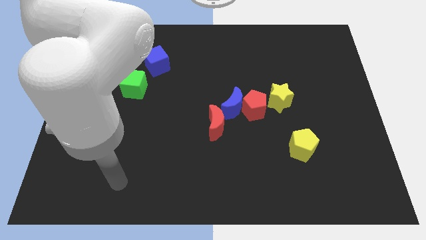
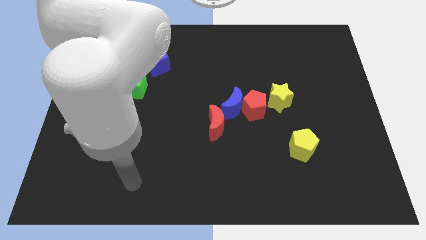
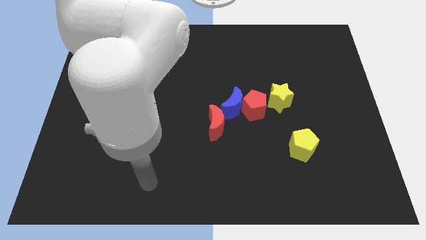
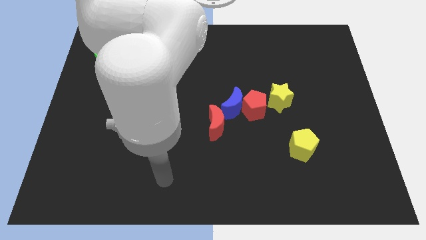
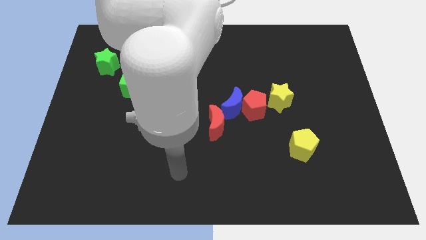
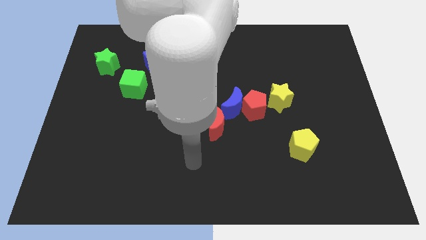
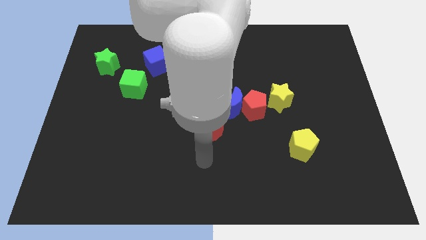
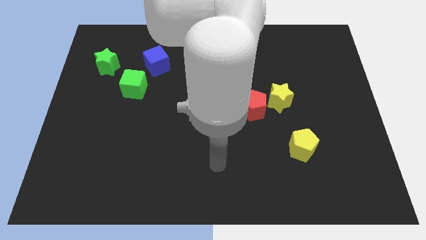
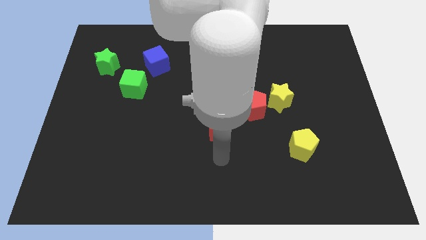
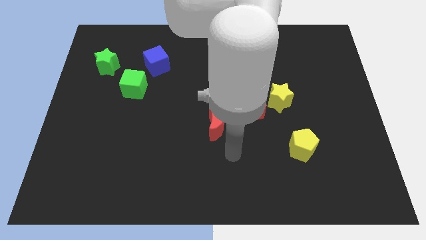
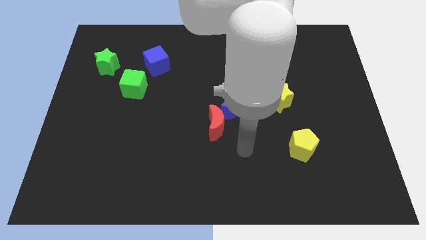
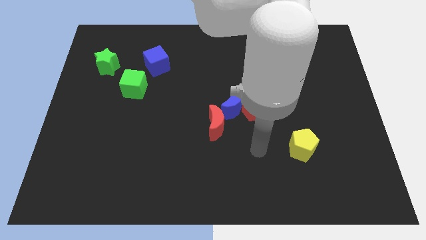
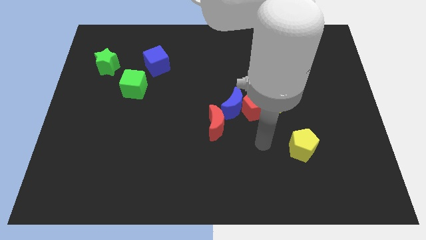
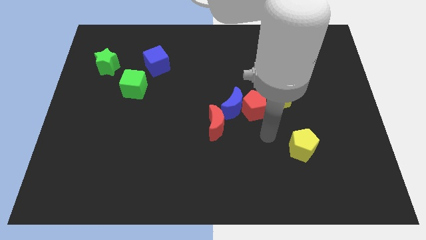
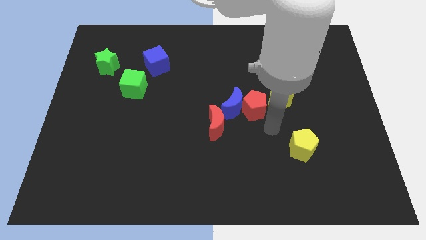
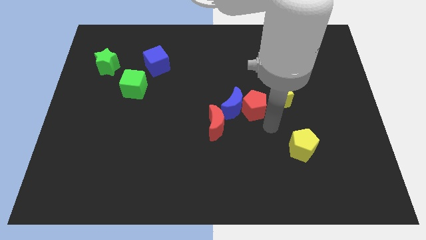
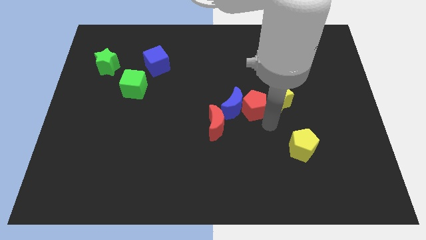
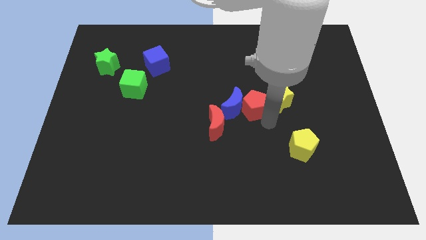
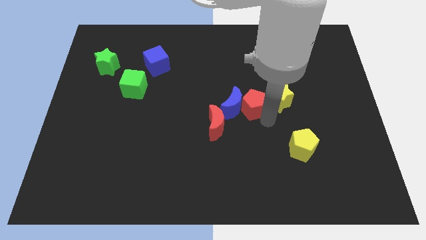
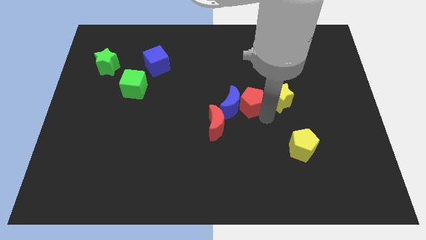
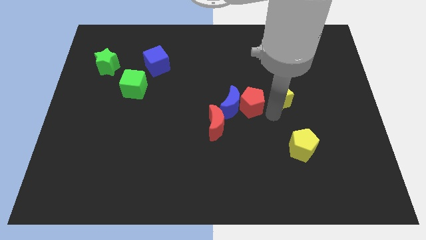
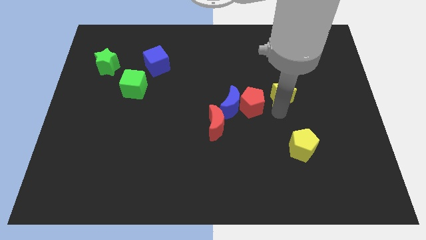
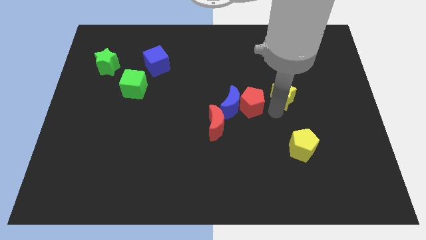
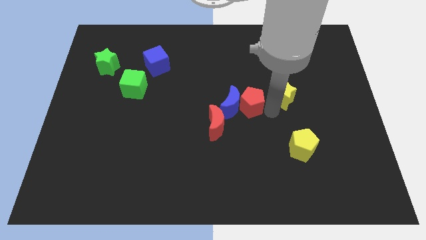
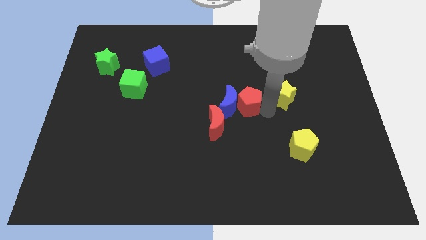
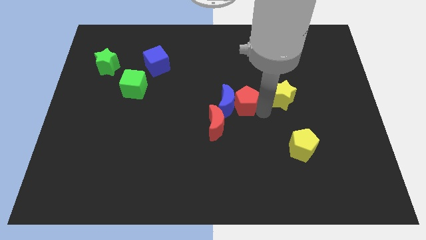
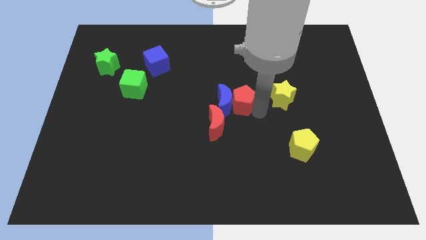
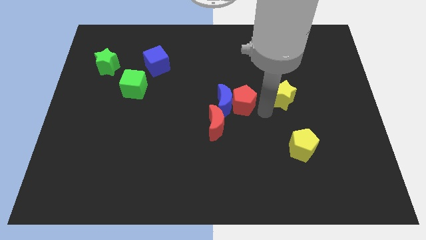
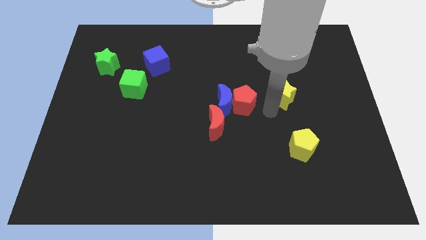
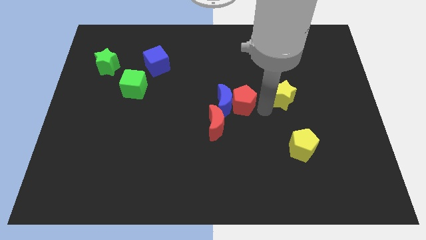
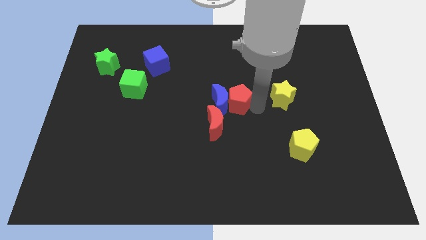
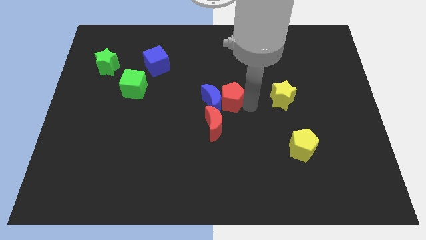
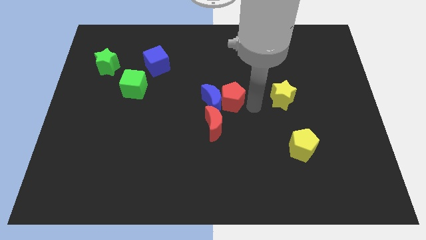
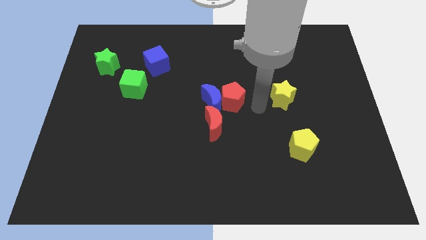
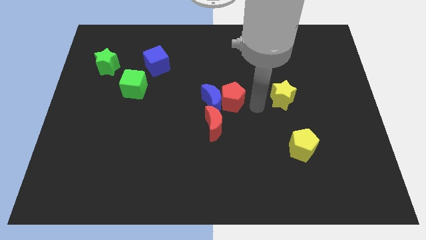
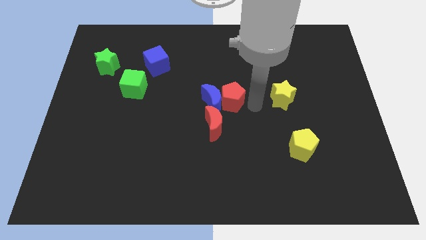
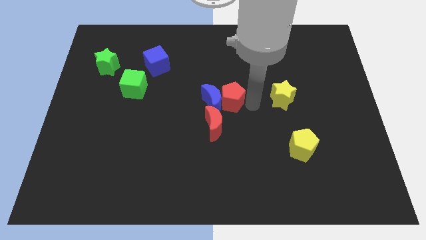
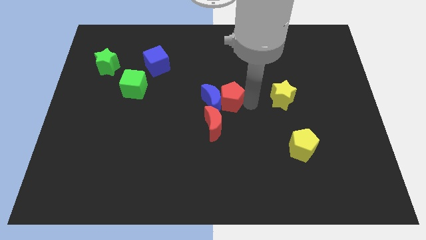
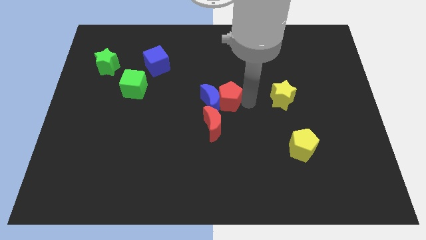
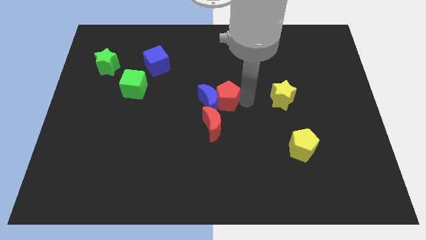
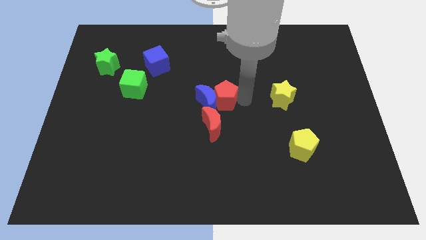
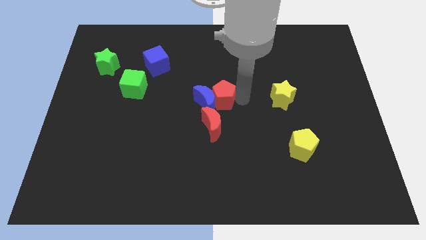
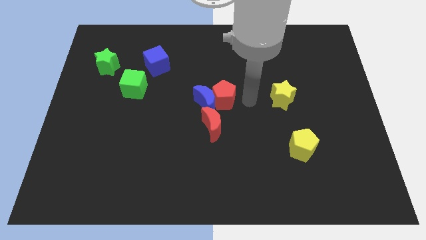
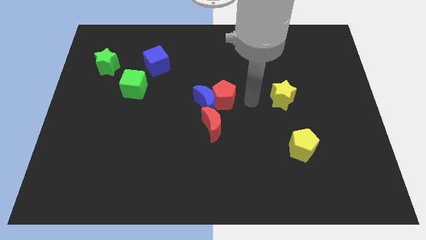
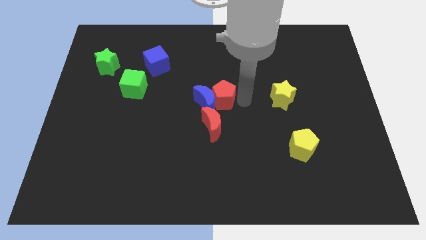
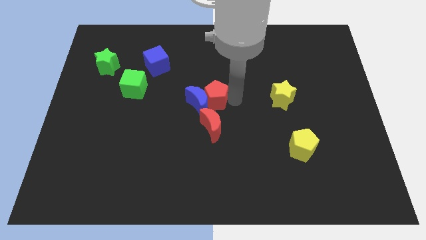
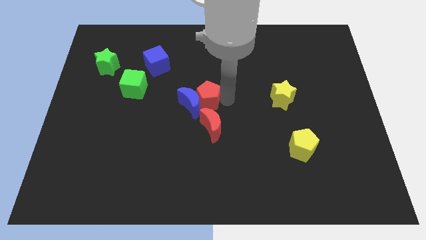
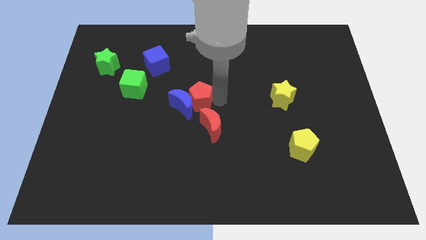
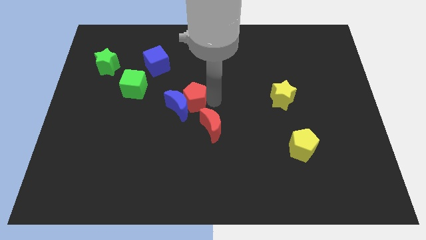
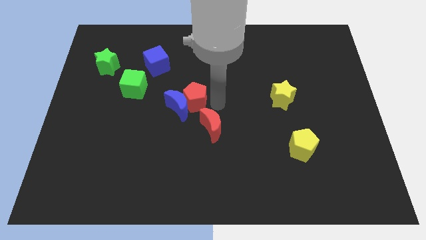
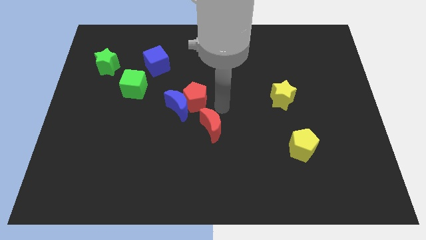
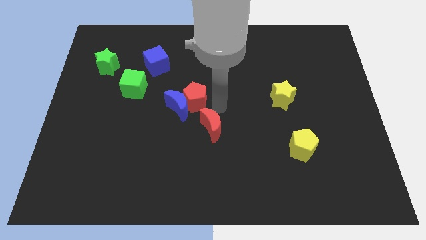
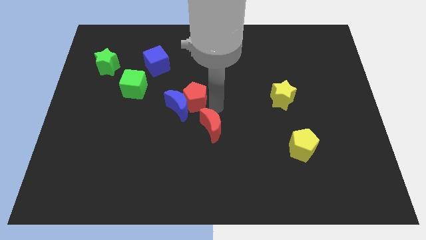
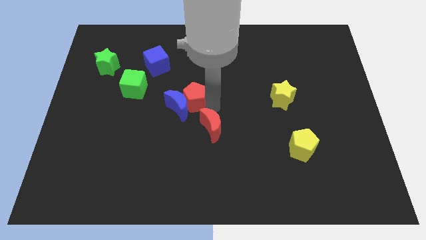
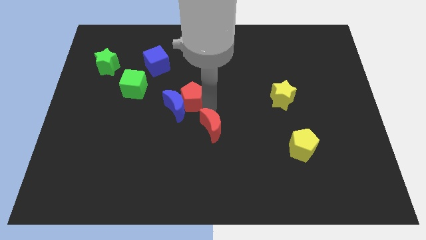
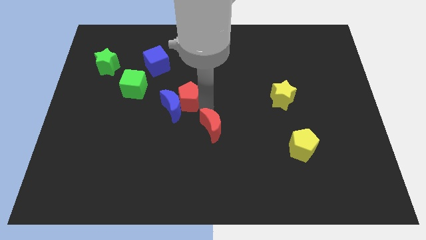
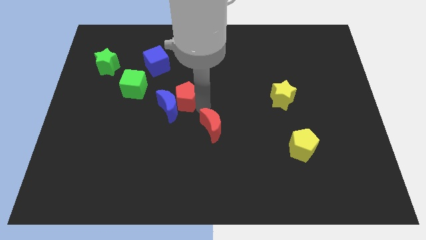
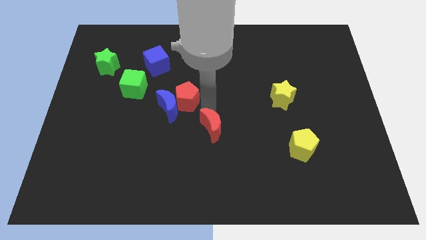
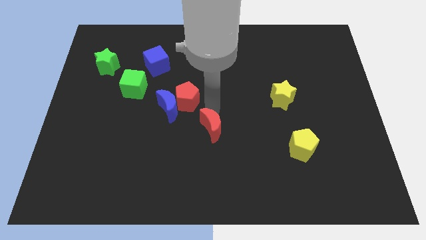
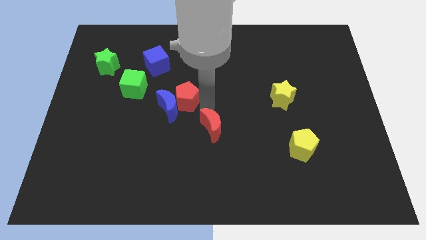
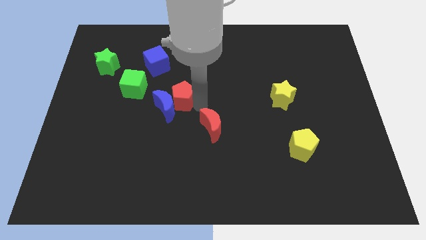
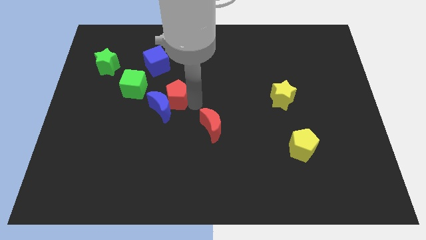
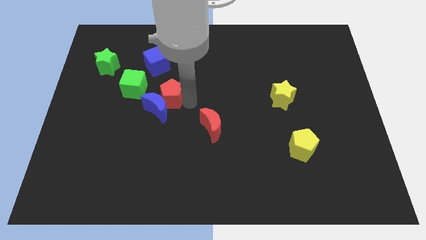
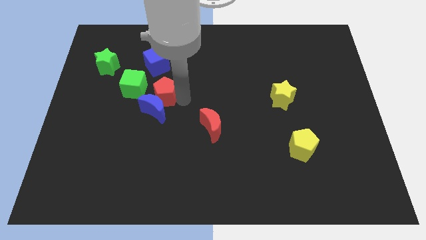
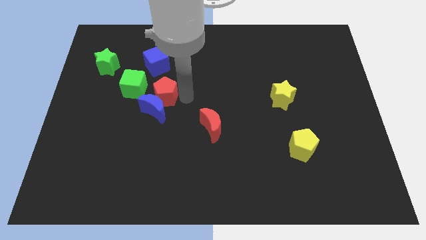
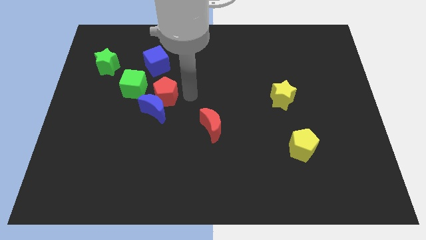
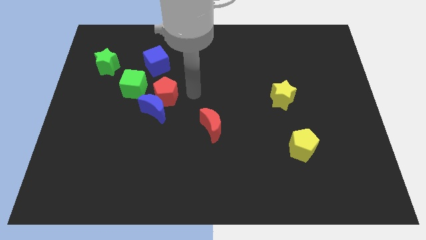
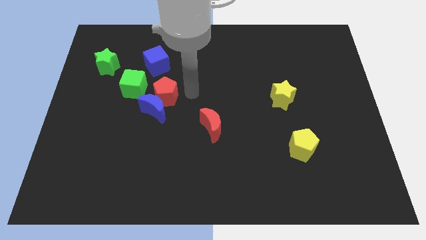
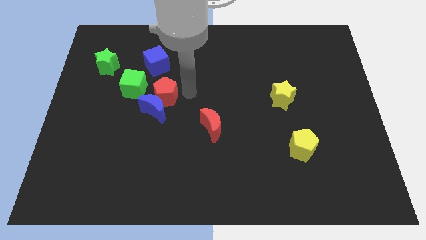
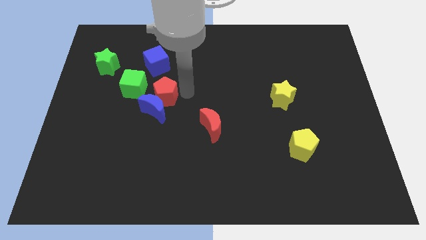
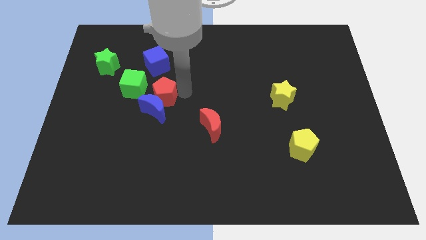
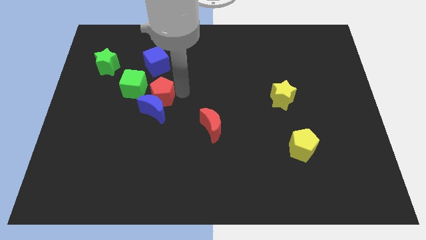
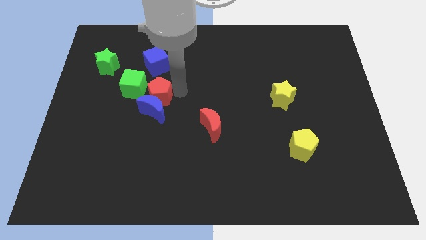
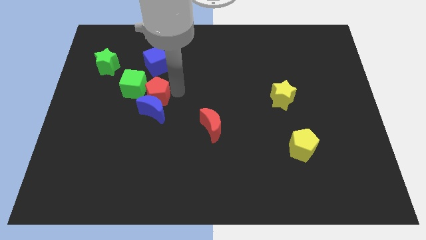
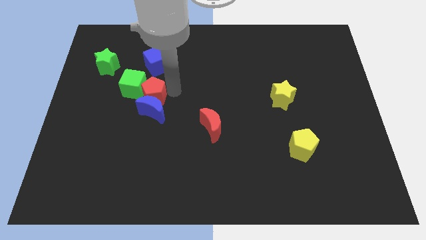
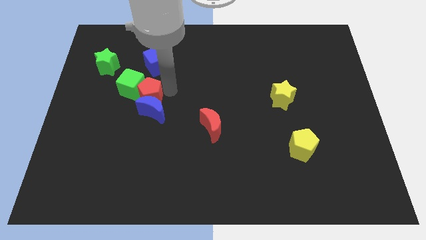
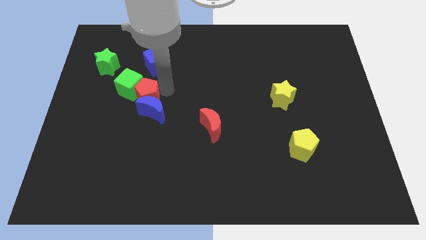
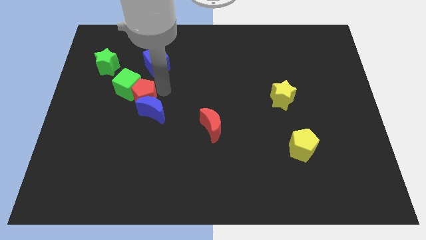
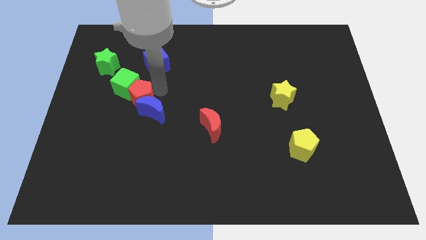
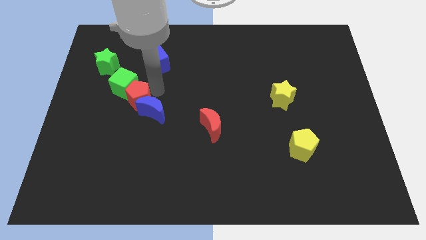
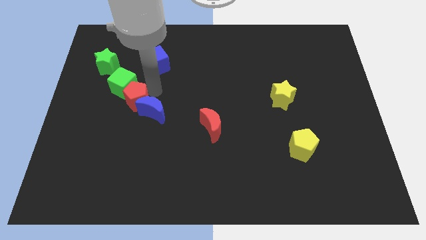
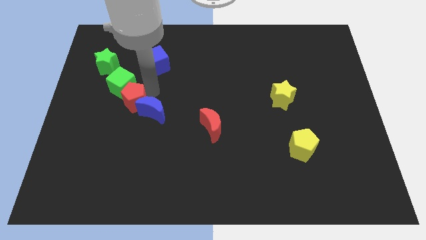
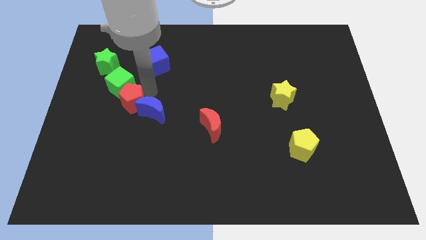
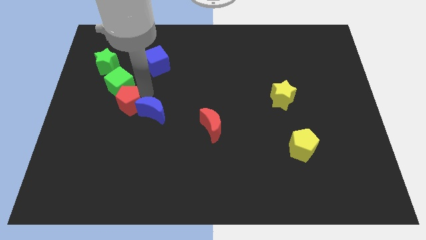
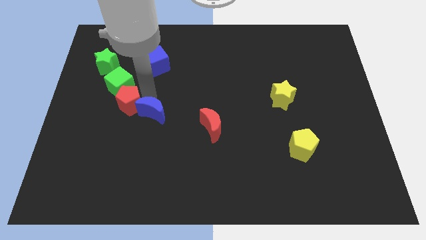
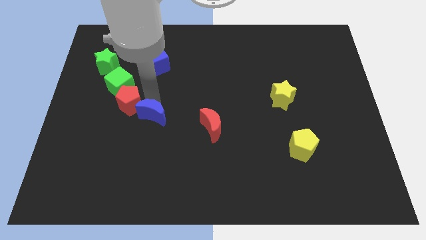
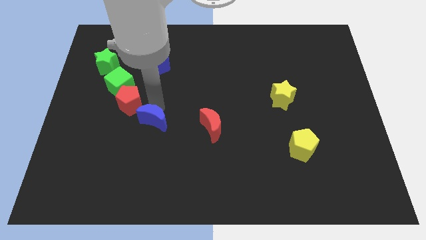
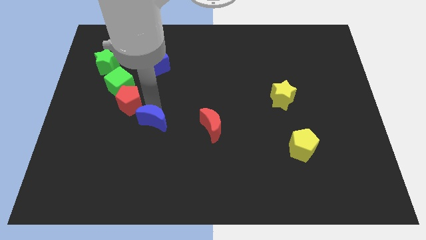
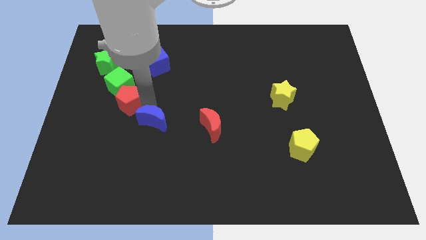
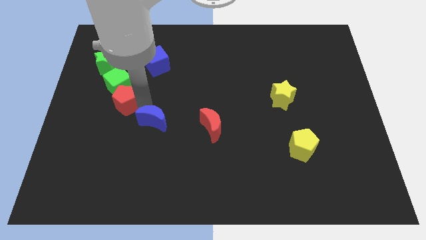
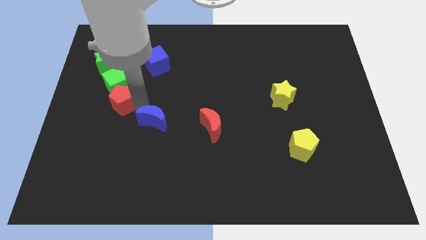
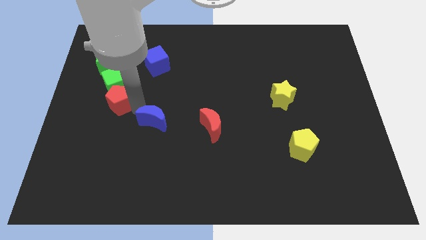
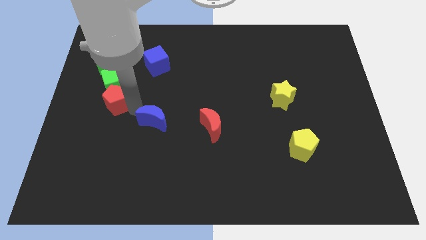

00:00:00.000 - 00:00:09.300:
put the red pentagon below the green star
